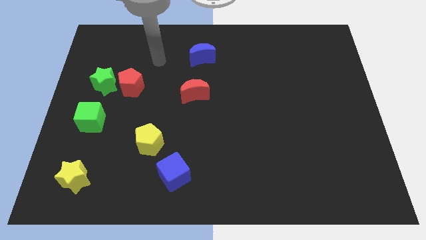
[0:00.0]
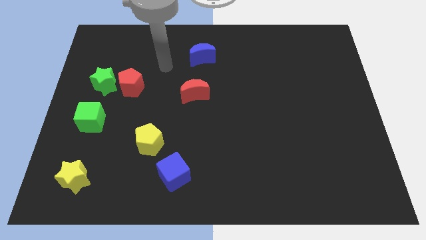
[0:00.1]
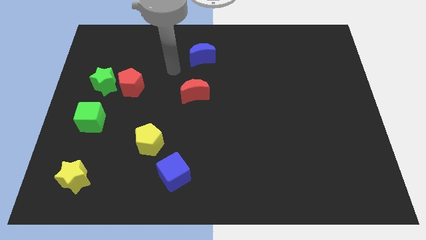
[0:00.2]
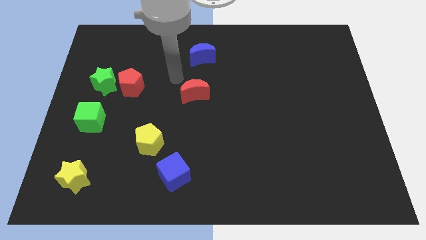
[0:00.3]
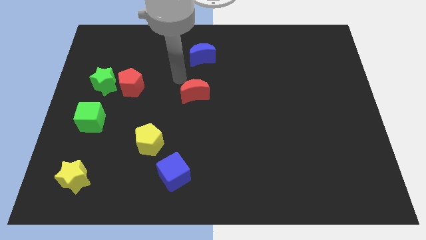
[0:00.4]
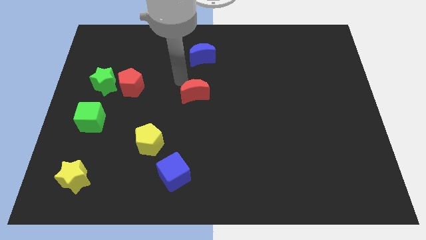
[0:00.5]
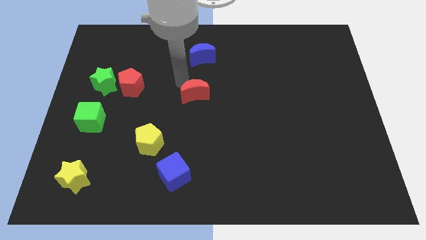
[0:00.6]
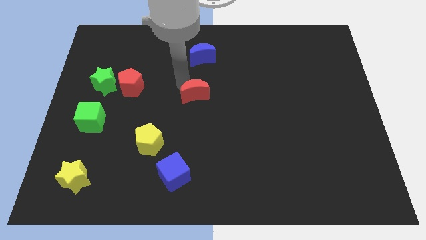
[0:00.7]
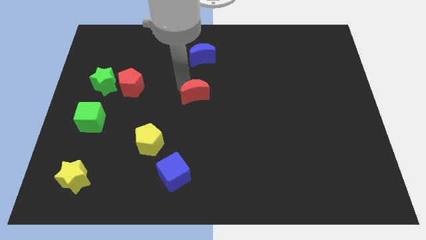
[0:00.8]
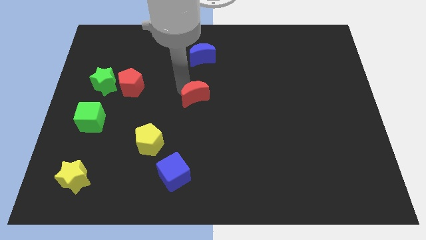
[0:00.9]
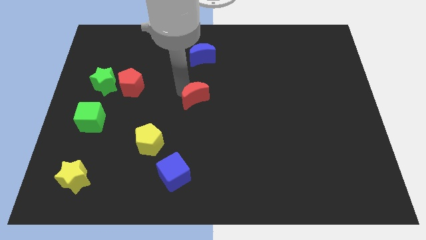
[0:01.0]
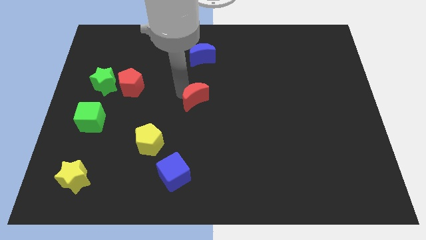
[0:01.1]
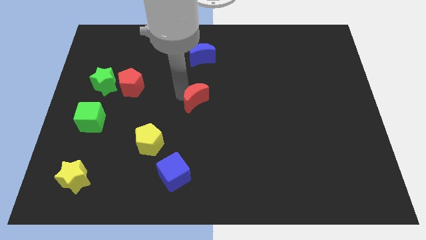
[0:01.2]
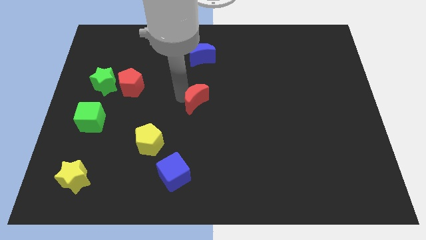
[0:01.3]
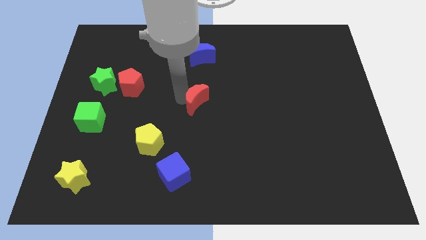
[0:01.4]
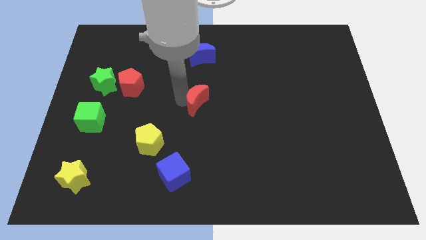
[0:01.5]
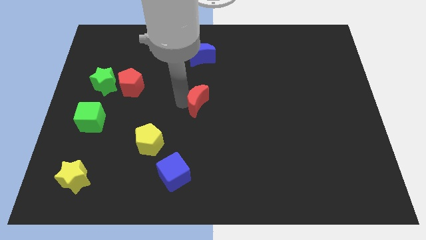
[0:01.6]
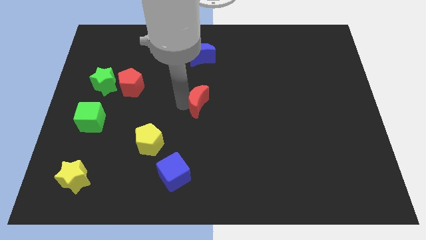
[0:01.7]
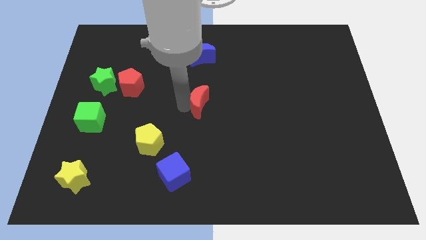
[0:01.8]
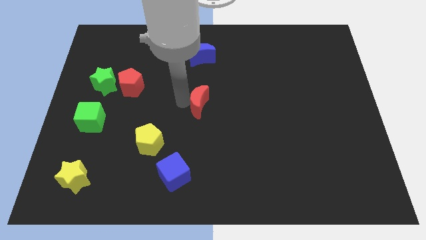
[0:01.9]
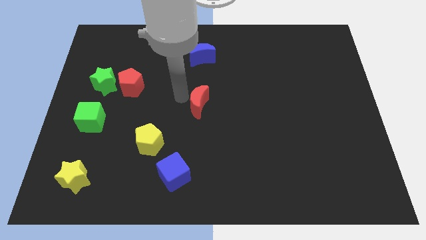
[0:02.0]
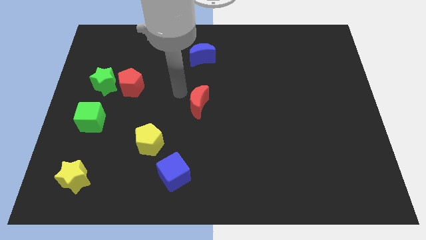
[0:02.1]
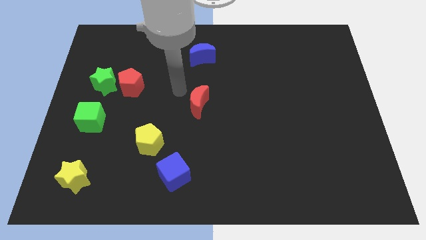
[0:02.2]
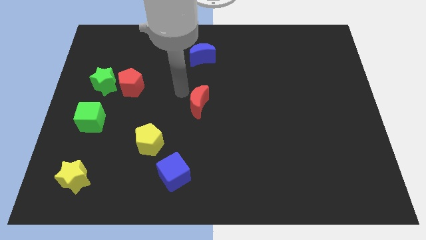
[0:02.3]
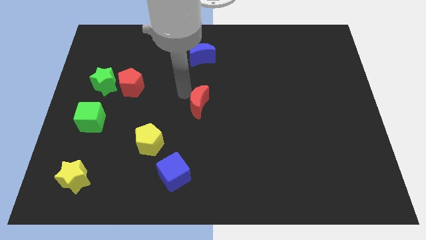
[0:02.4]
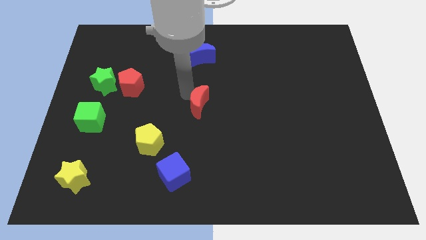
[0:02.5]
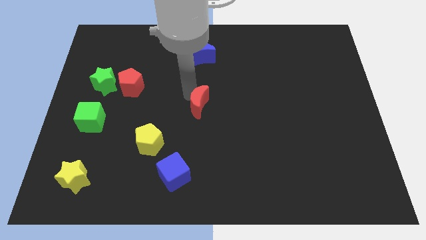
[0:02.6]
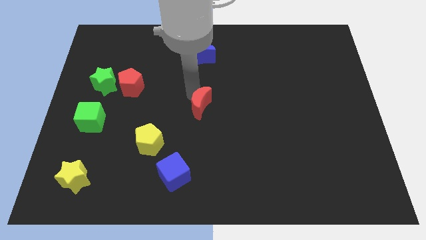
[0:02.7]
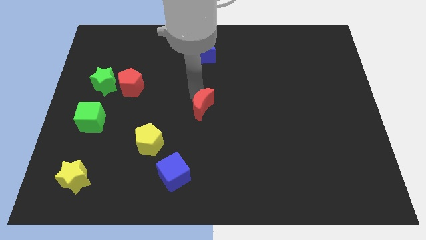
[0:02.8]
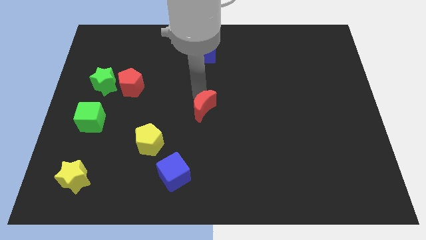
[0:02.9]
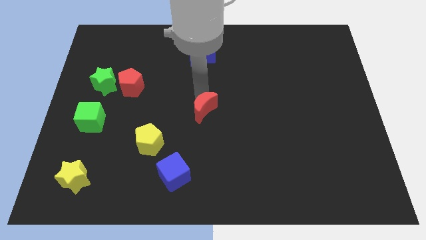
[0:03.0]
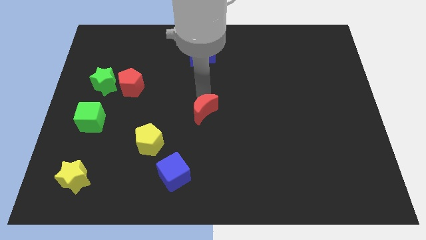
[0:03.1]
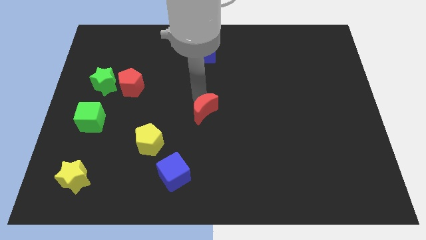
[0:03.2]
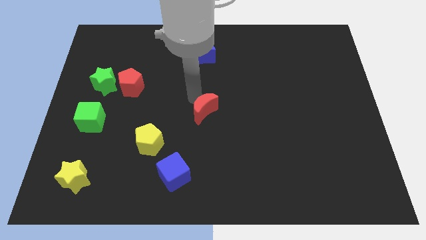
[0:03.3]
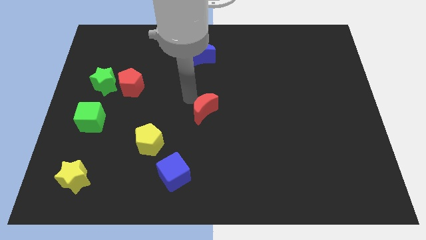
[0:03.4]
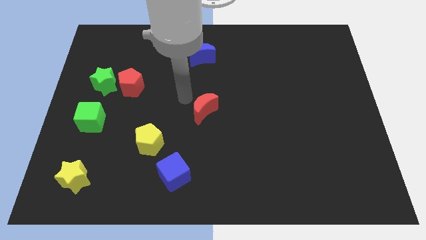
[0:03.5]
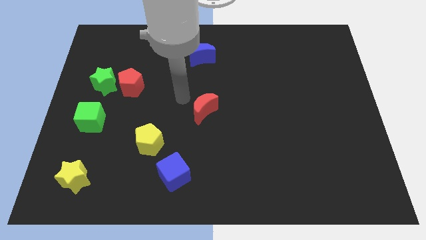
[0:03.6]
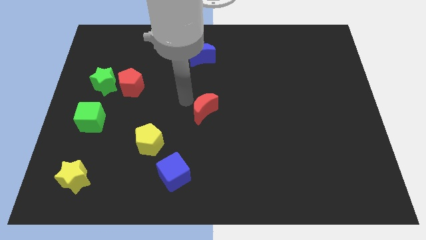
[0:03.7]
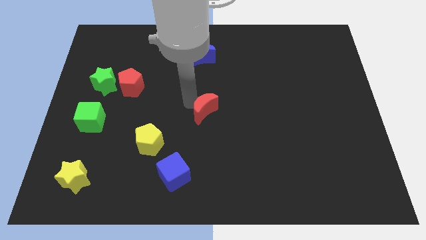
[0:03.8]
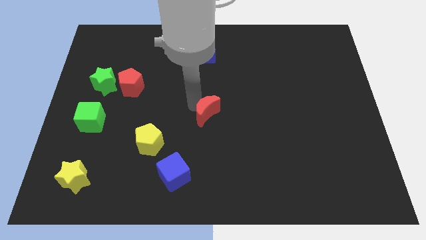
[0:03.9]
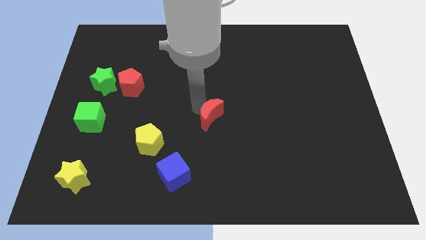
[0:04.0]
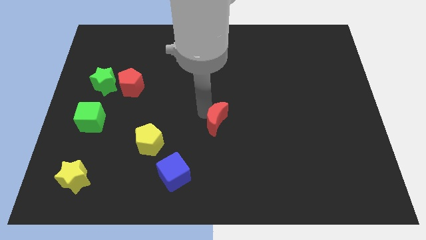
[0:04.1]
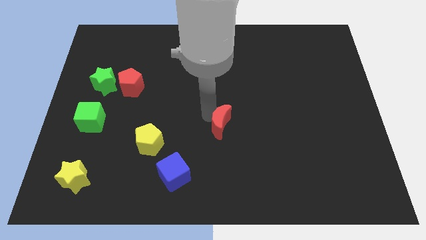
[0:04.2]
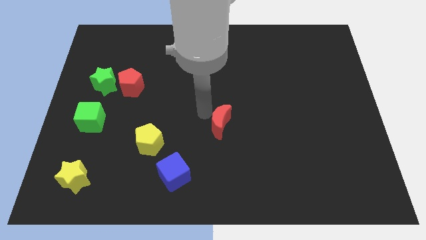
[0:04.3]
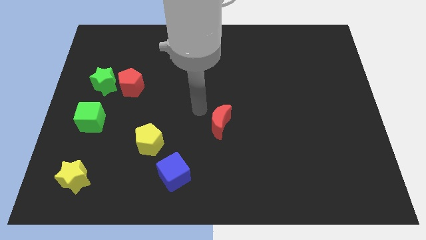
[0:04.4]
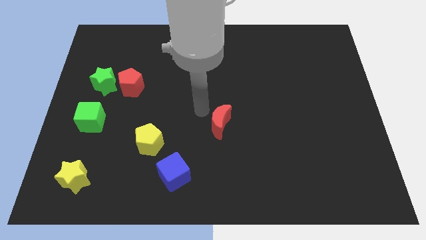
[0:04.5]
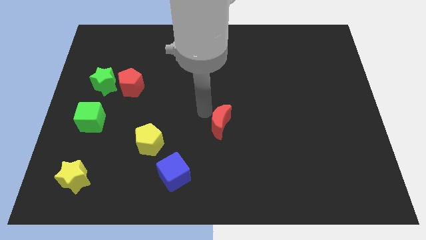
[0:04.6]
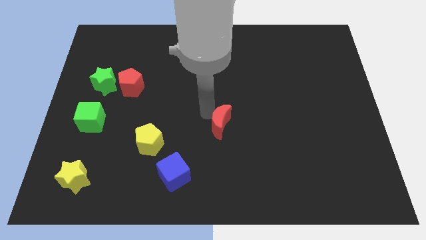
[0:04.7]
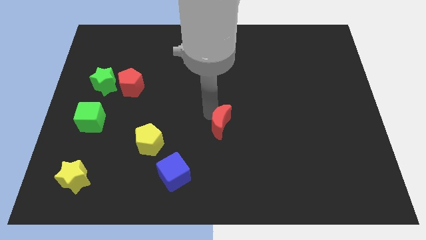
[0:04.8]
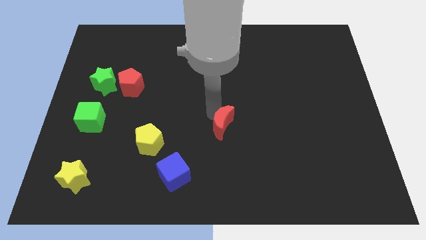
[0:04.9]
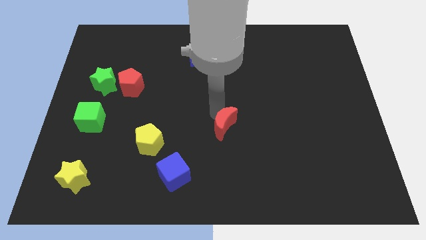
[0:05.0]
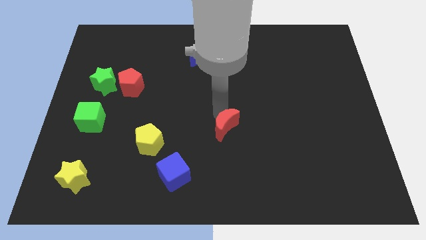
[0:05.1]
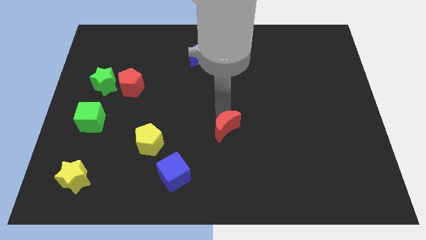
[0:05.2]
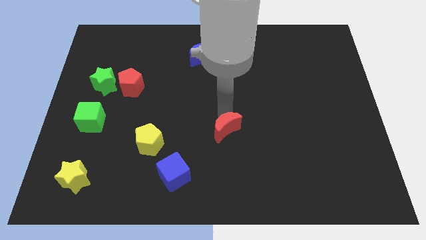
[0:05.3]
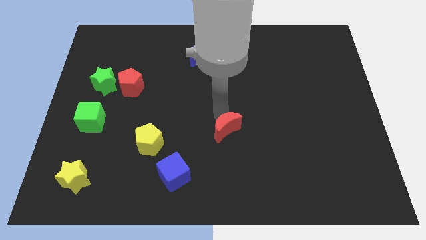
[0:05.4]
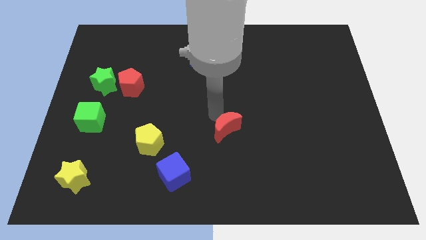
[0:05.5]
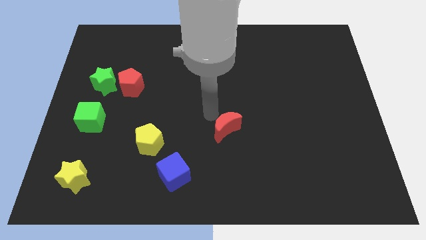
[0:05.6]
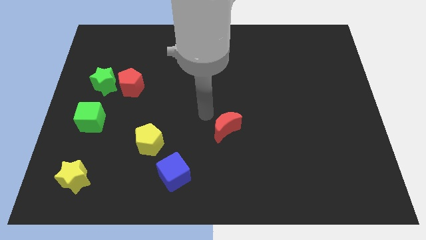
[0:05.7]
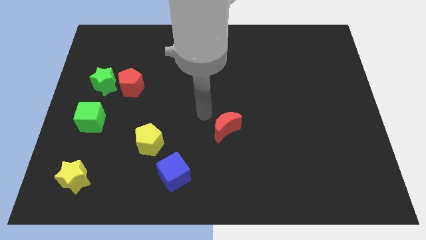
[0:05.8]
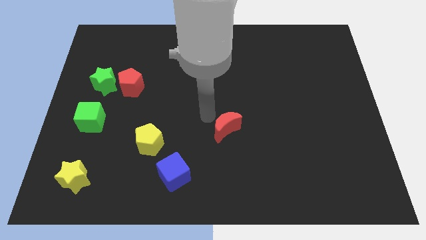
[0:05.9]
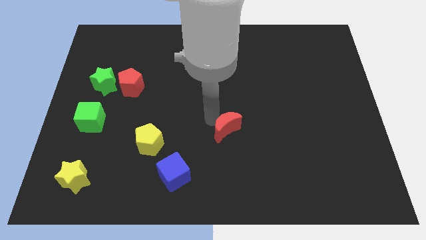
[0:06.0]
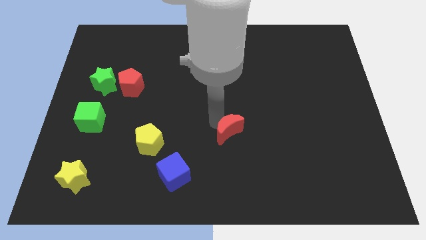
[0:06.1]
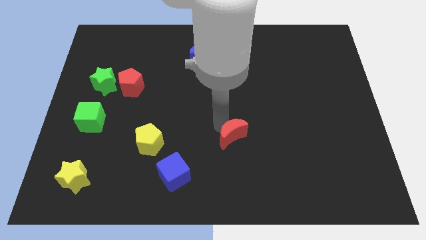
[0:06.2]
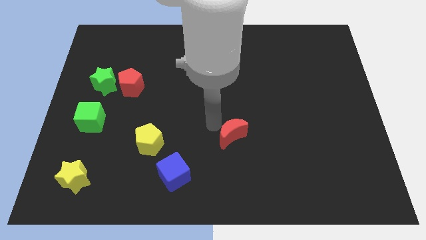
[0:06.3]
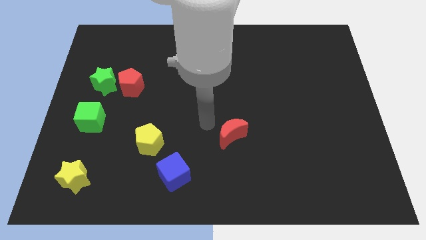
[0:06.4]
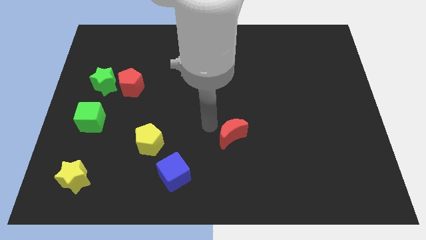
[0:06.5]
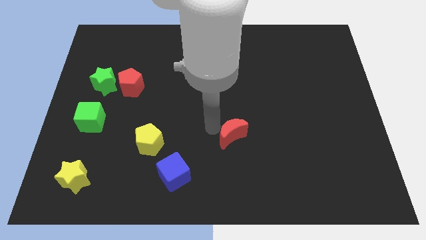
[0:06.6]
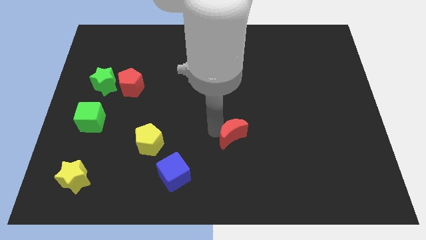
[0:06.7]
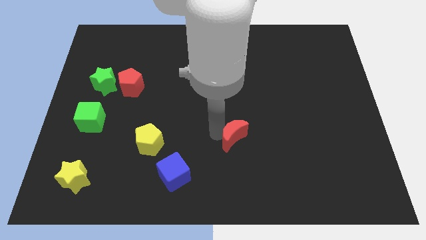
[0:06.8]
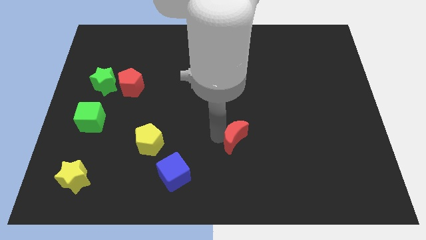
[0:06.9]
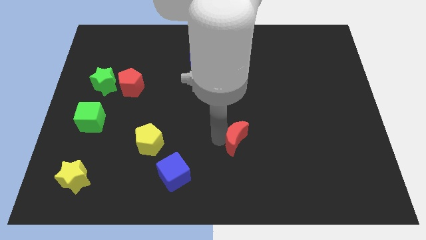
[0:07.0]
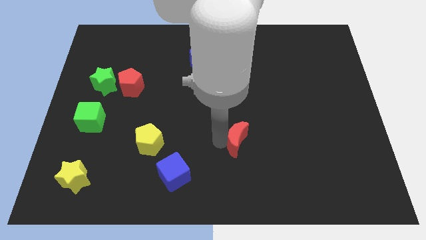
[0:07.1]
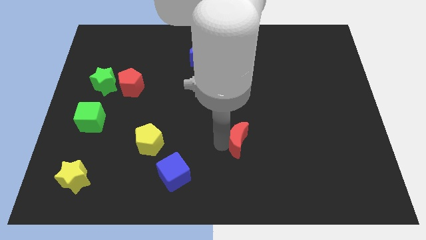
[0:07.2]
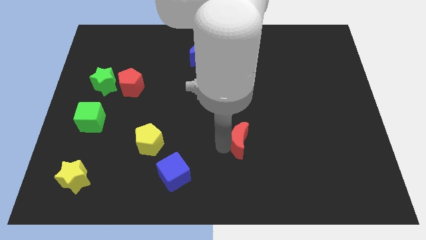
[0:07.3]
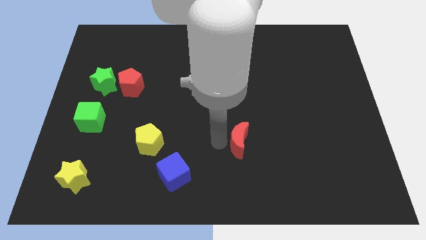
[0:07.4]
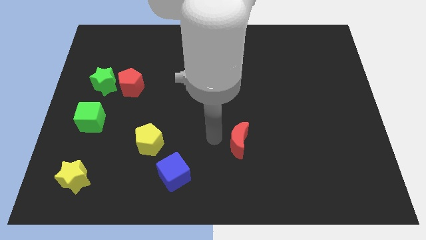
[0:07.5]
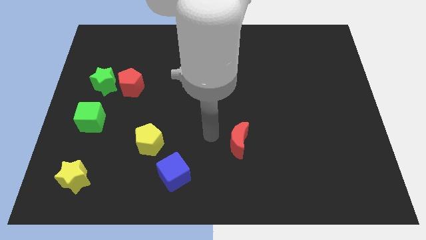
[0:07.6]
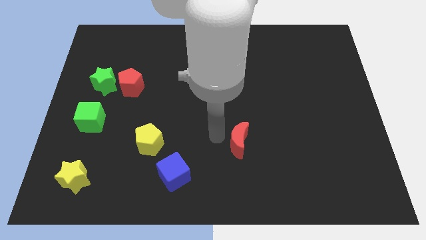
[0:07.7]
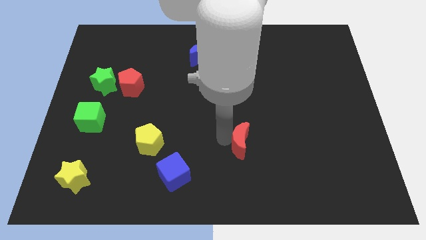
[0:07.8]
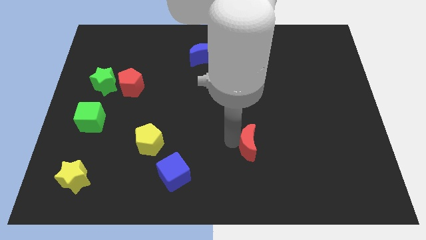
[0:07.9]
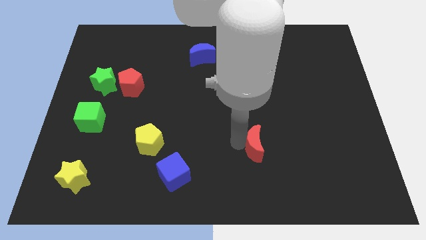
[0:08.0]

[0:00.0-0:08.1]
push the red moon down and then to the right
